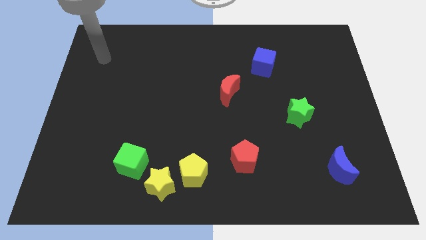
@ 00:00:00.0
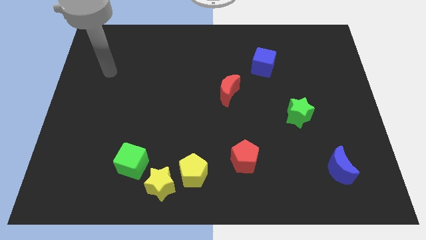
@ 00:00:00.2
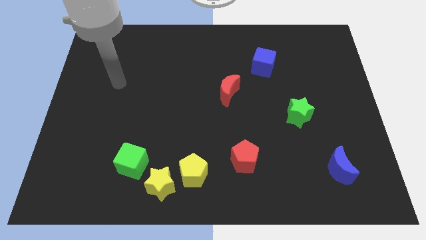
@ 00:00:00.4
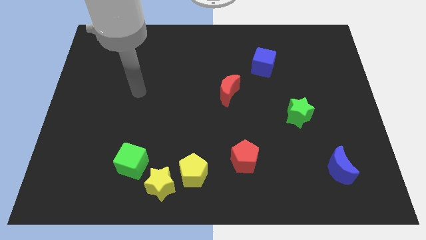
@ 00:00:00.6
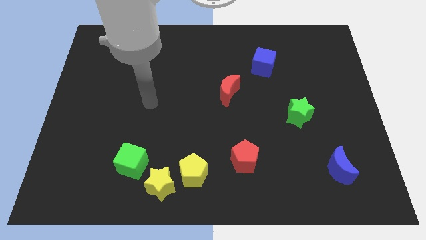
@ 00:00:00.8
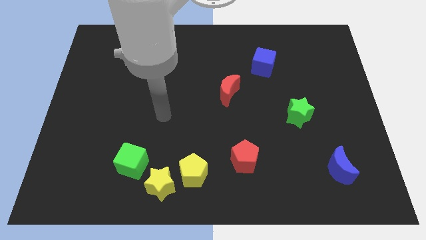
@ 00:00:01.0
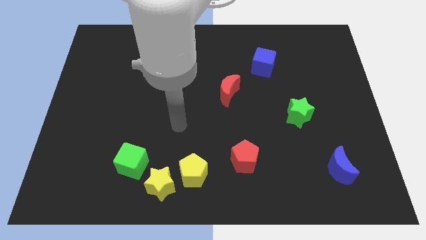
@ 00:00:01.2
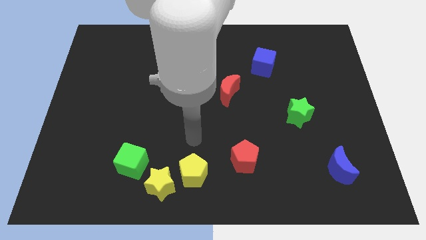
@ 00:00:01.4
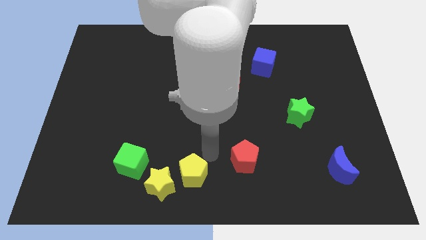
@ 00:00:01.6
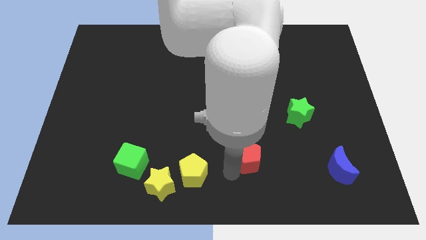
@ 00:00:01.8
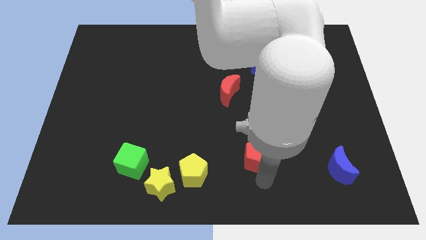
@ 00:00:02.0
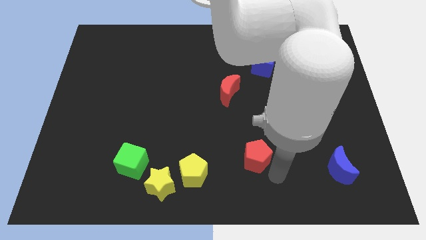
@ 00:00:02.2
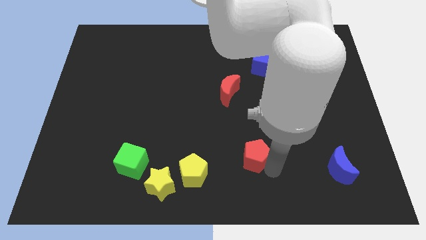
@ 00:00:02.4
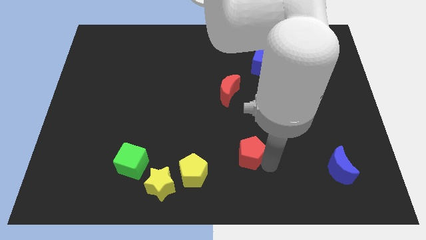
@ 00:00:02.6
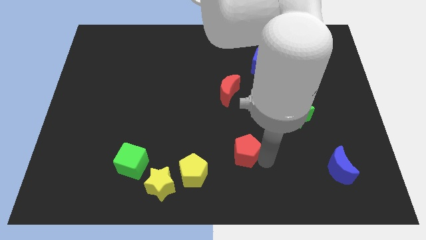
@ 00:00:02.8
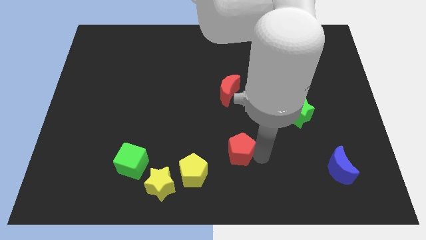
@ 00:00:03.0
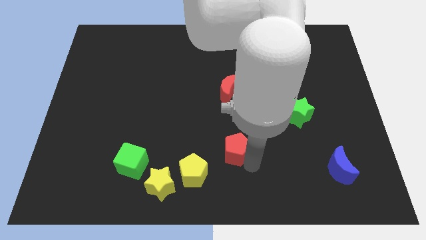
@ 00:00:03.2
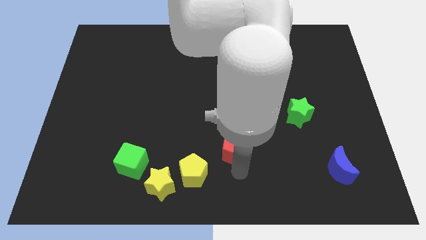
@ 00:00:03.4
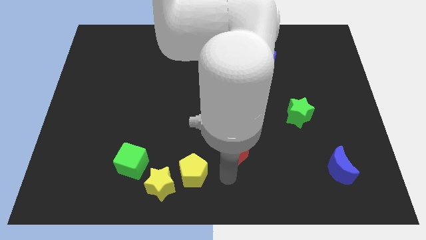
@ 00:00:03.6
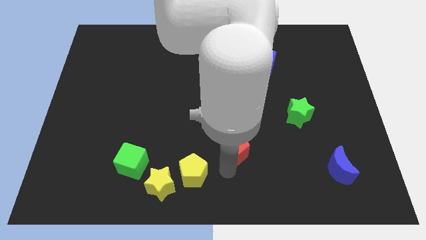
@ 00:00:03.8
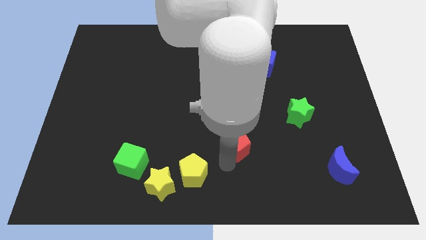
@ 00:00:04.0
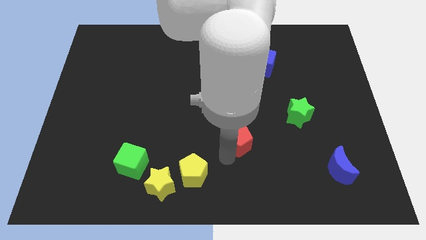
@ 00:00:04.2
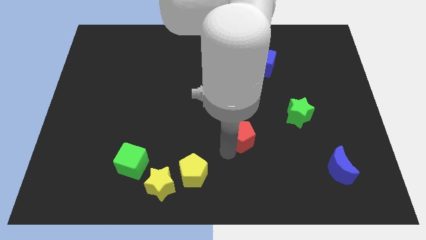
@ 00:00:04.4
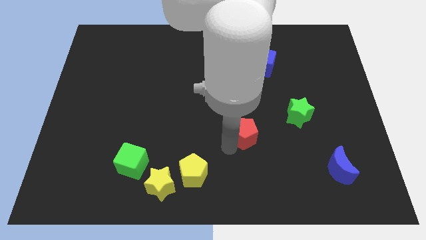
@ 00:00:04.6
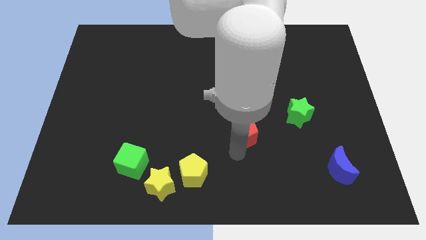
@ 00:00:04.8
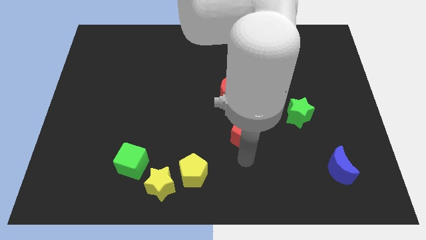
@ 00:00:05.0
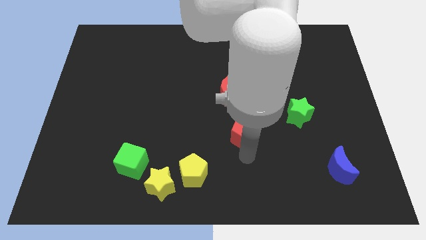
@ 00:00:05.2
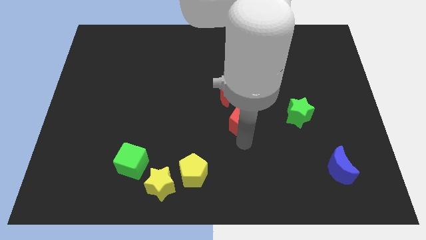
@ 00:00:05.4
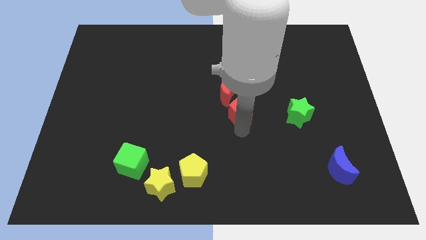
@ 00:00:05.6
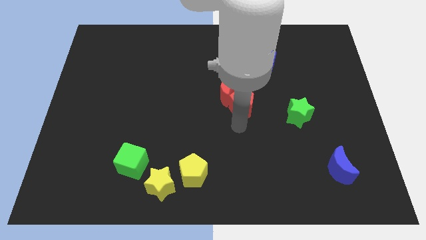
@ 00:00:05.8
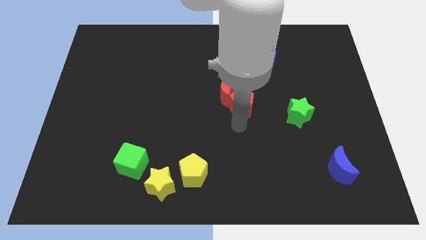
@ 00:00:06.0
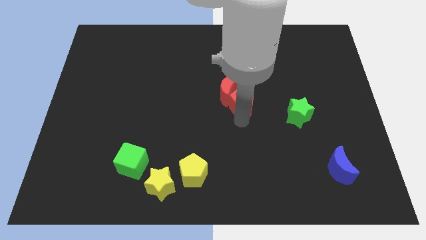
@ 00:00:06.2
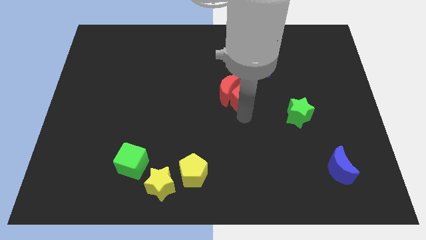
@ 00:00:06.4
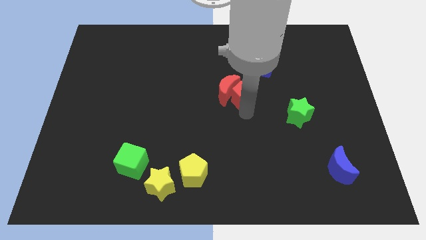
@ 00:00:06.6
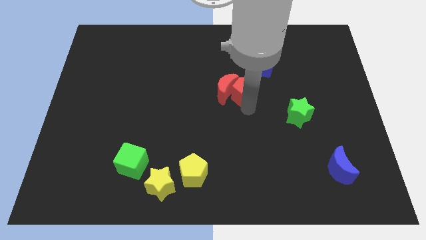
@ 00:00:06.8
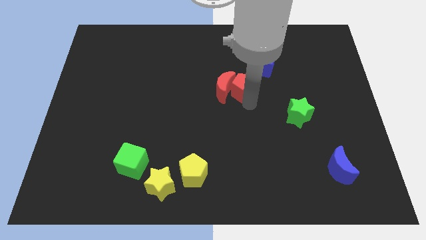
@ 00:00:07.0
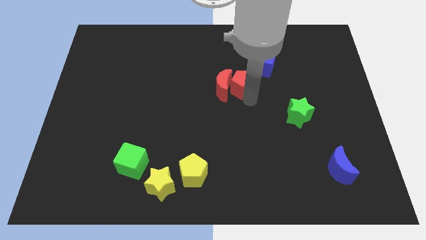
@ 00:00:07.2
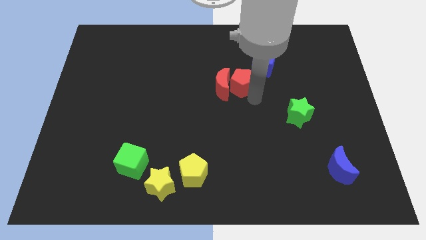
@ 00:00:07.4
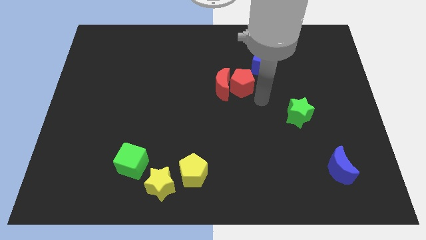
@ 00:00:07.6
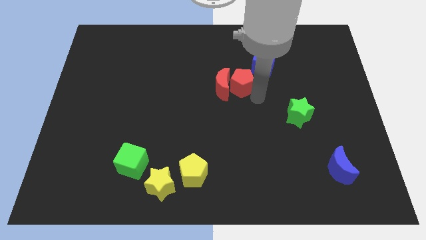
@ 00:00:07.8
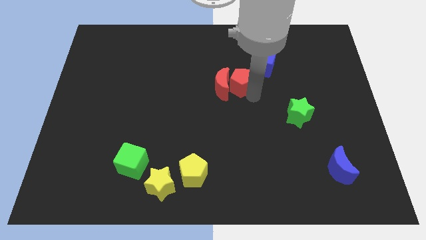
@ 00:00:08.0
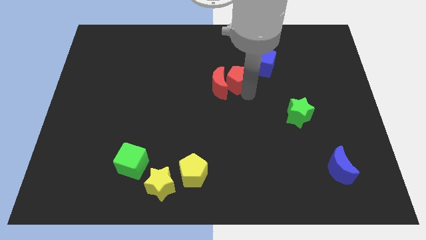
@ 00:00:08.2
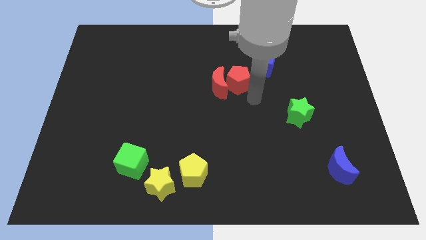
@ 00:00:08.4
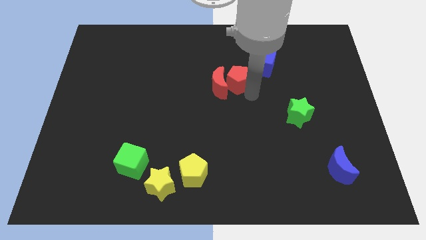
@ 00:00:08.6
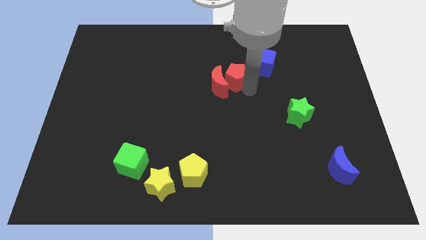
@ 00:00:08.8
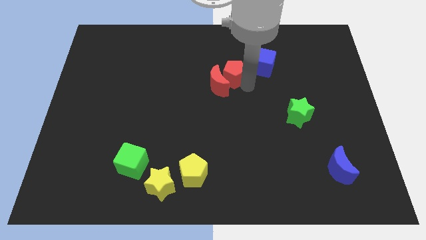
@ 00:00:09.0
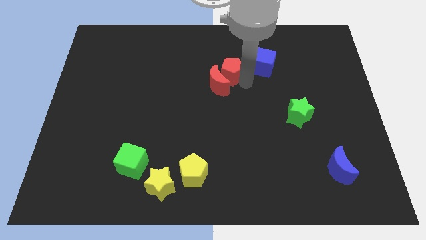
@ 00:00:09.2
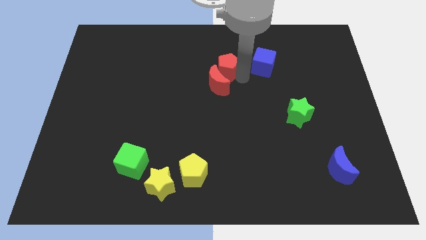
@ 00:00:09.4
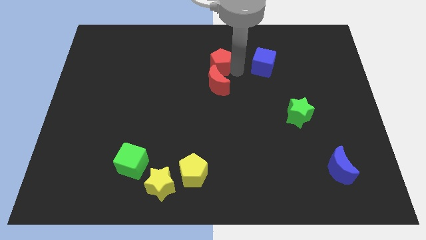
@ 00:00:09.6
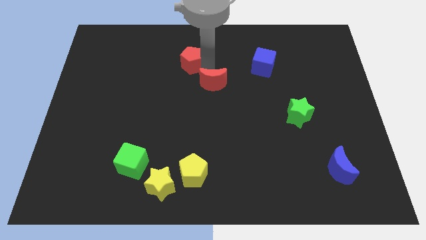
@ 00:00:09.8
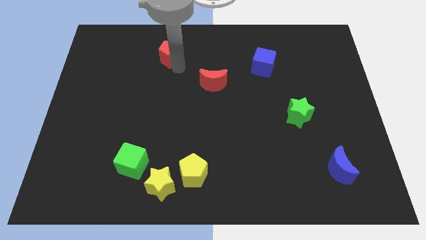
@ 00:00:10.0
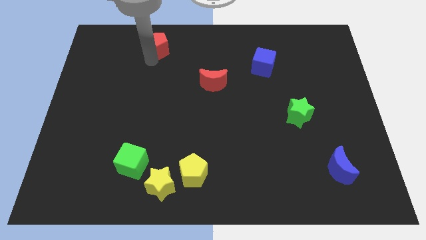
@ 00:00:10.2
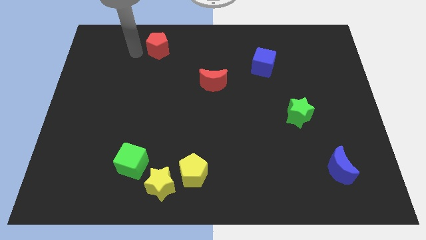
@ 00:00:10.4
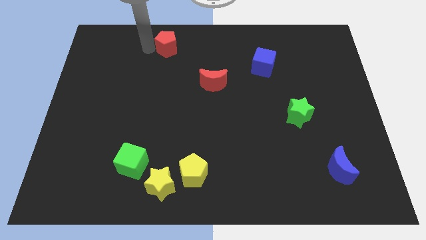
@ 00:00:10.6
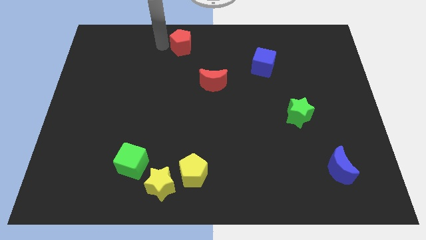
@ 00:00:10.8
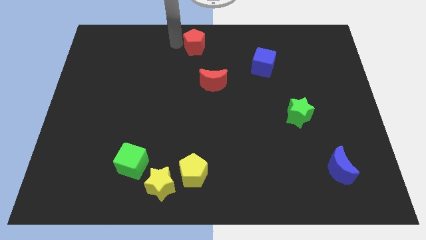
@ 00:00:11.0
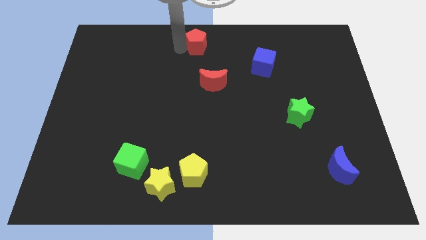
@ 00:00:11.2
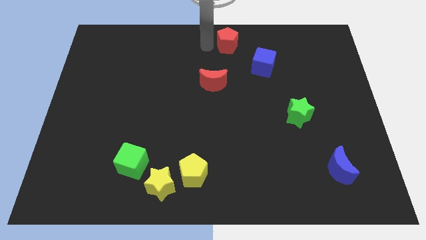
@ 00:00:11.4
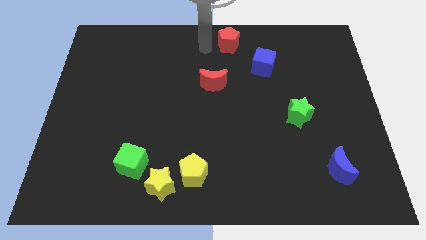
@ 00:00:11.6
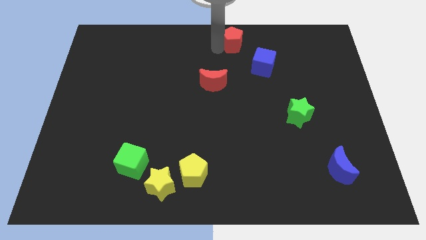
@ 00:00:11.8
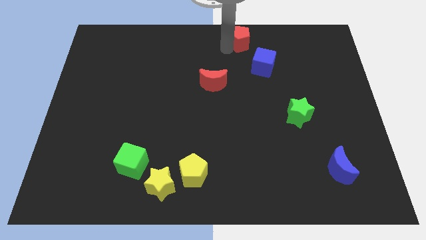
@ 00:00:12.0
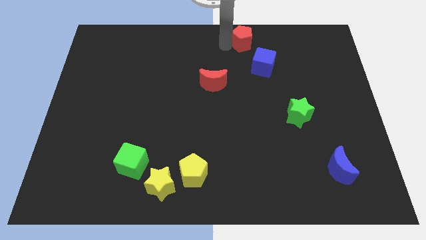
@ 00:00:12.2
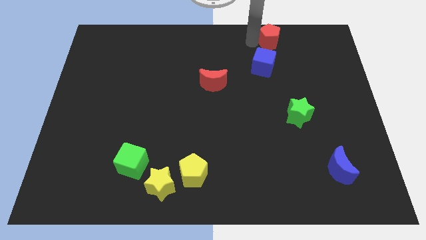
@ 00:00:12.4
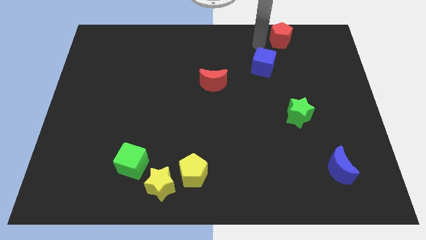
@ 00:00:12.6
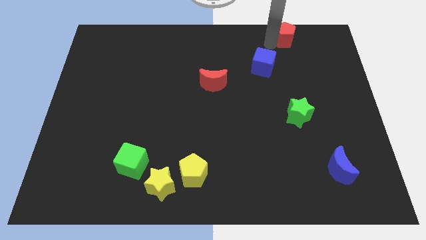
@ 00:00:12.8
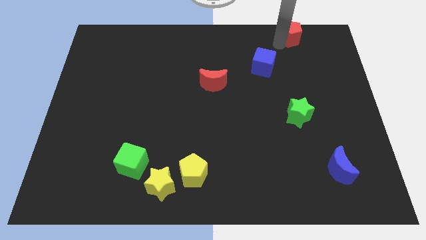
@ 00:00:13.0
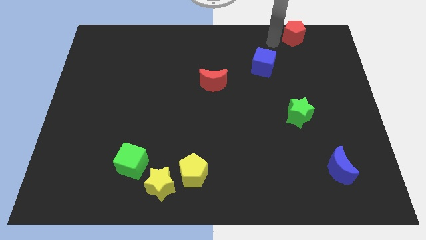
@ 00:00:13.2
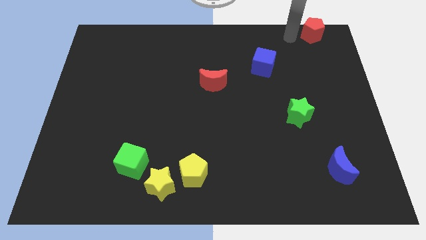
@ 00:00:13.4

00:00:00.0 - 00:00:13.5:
push the red pentagon to the top right corner
